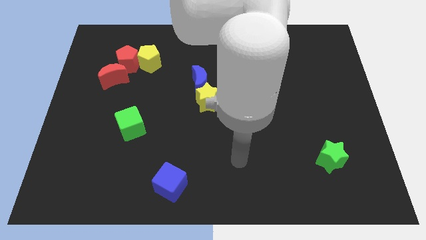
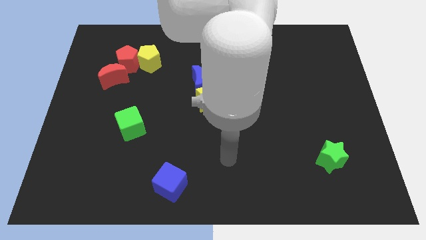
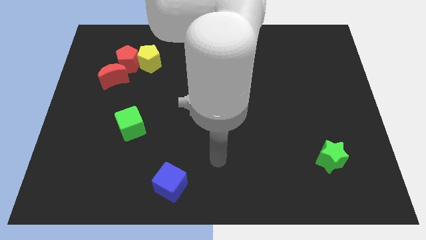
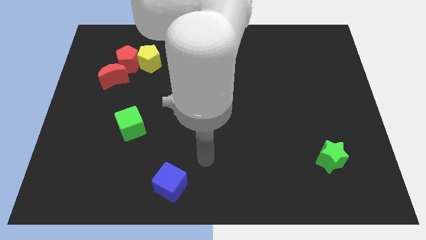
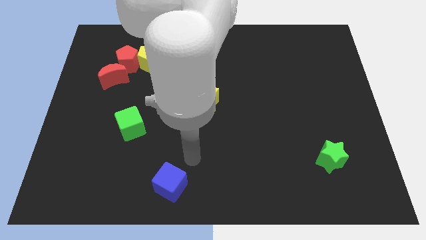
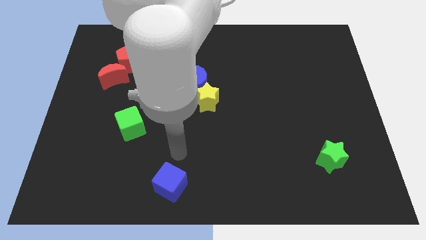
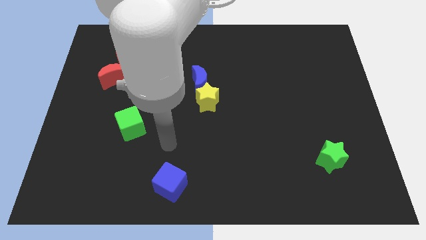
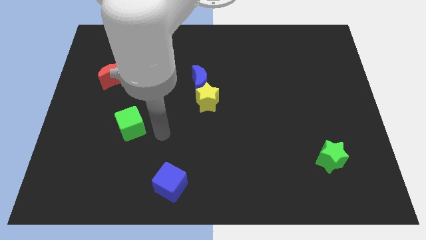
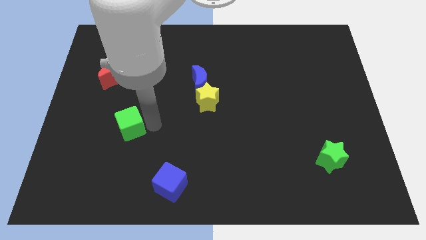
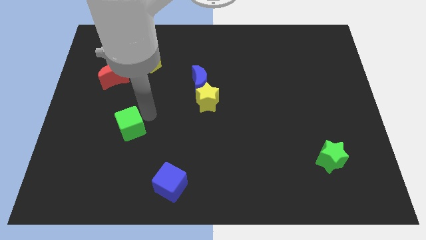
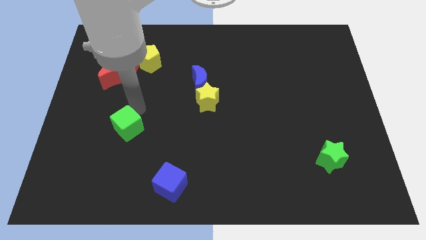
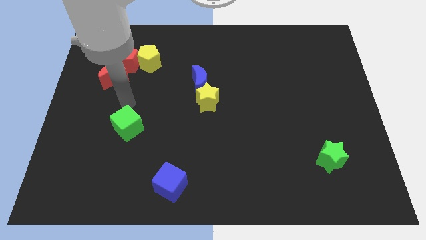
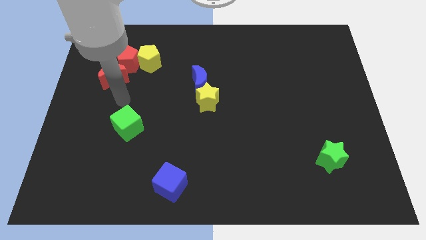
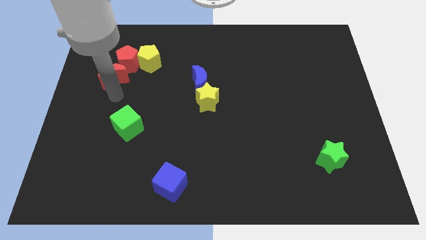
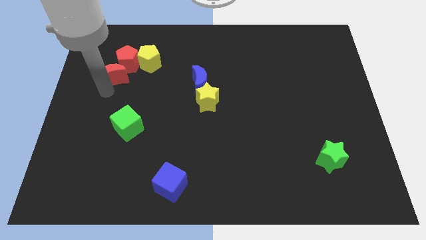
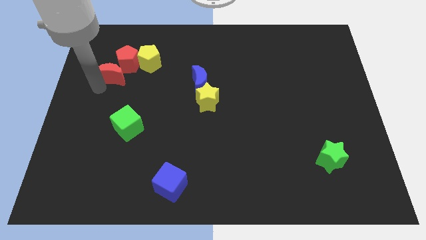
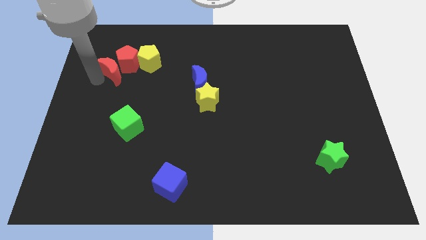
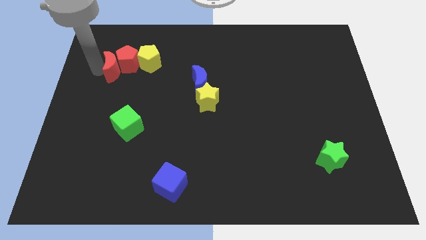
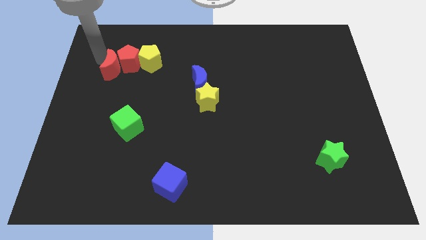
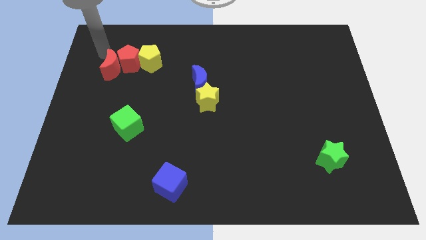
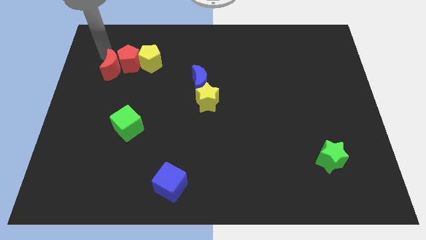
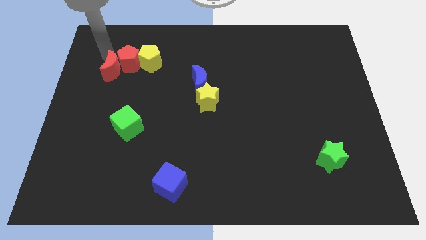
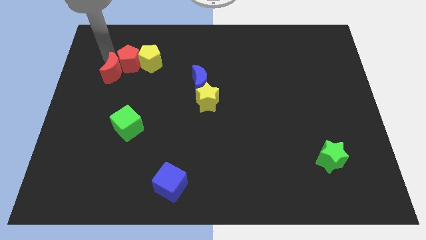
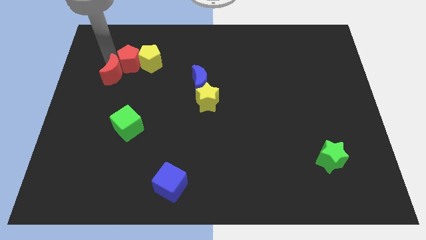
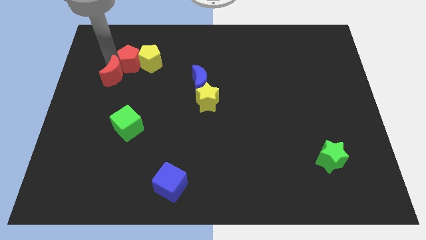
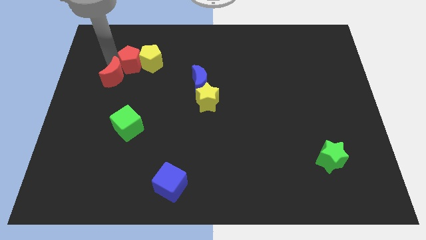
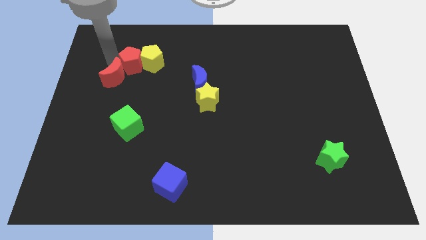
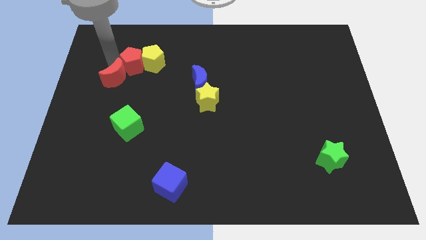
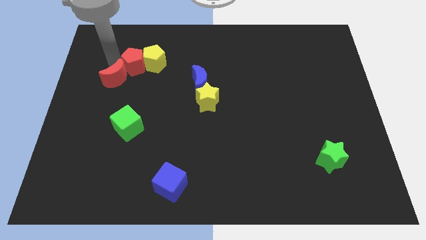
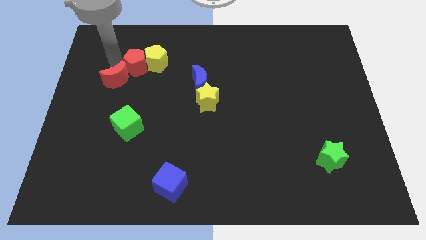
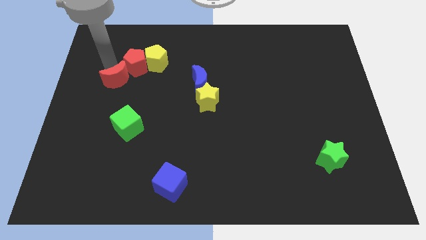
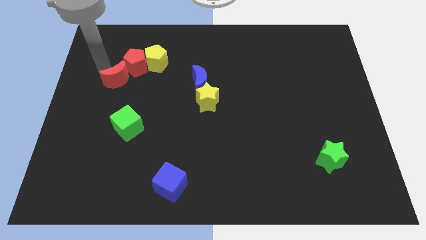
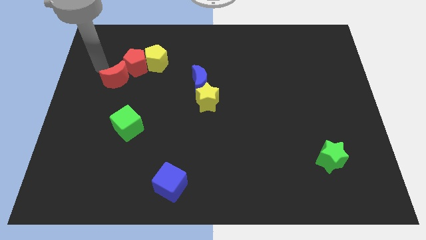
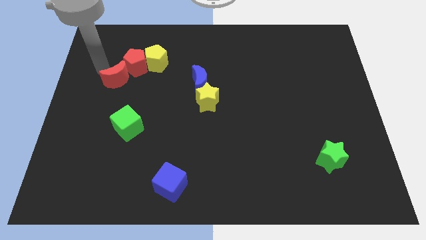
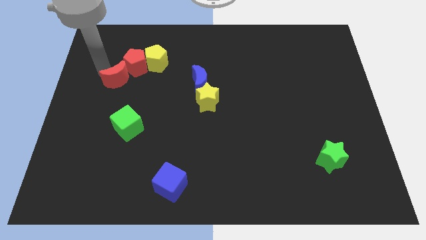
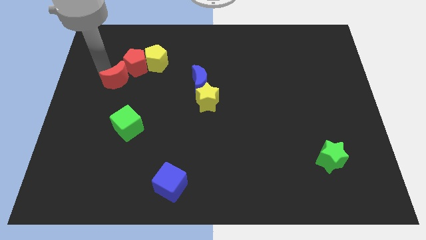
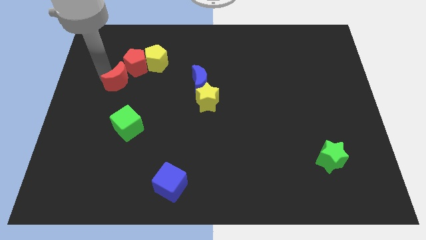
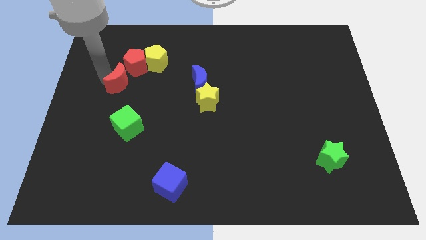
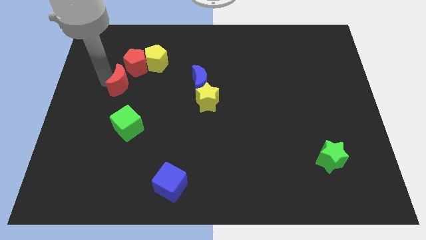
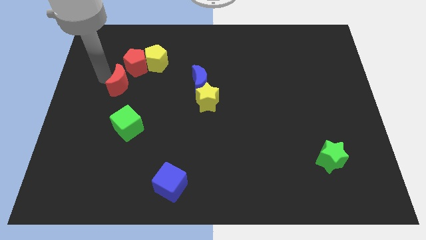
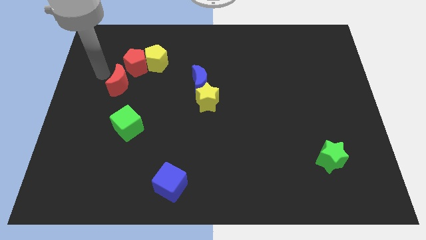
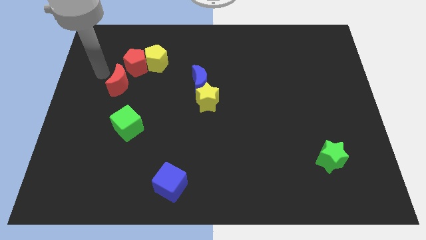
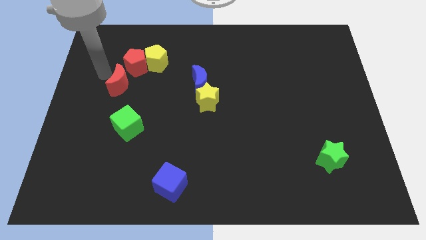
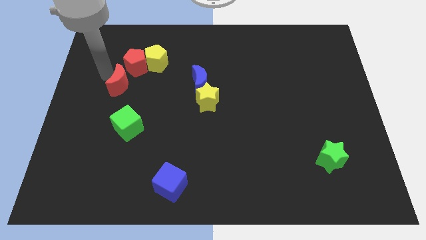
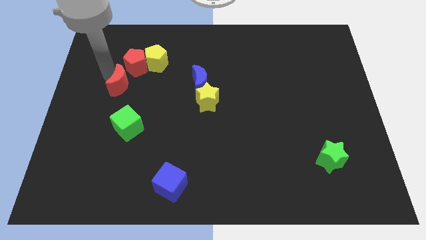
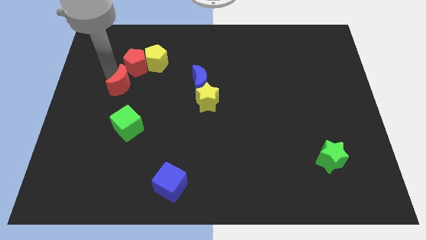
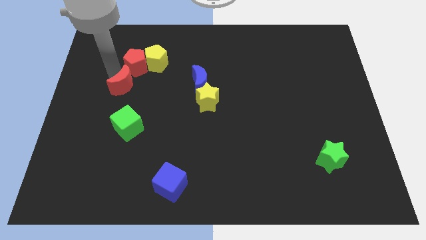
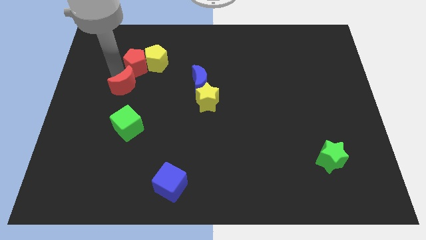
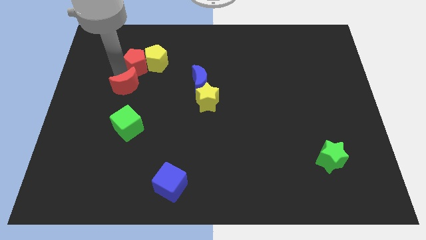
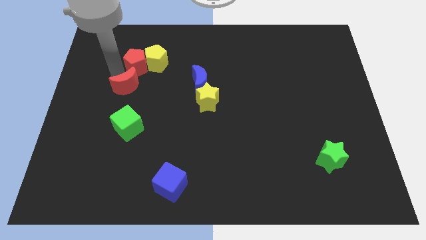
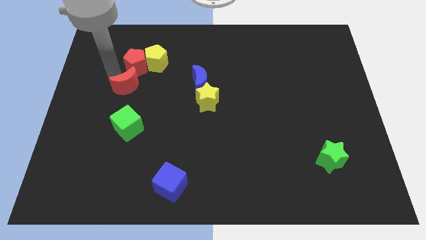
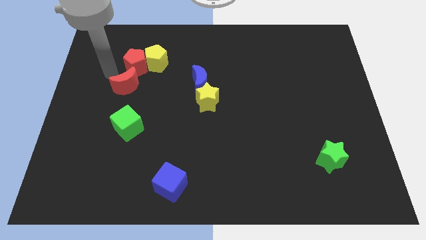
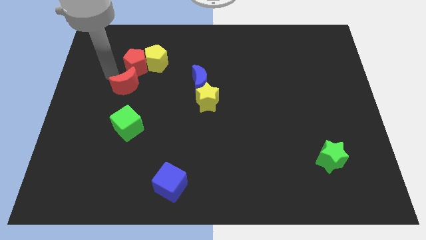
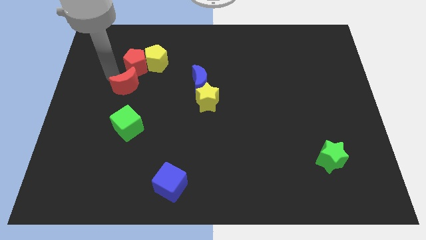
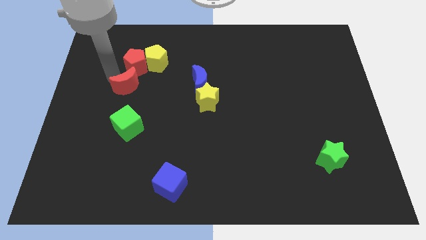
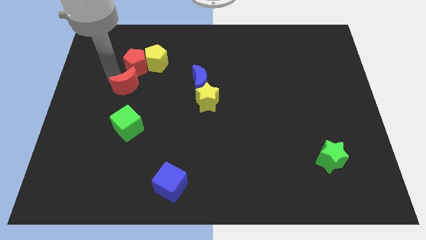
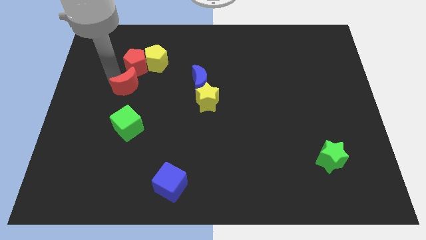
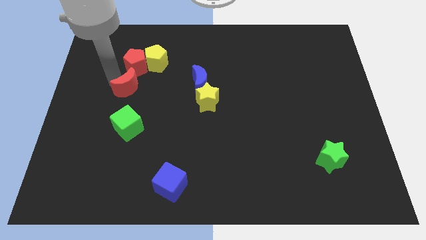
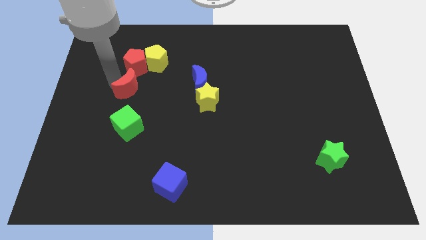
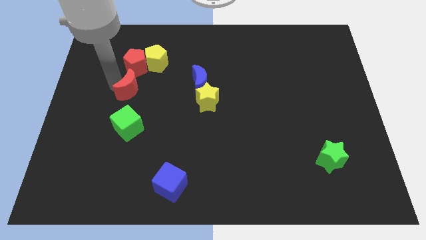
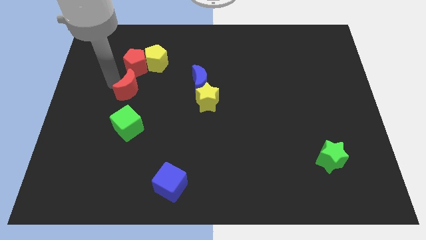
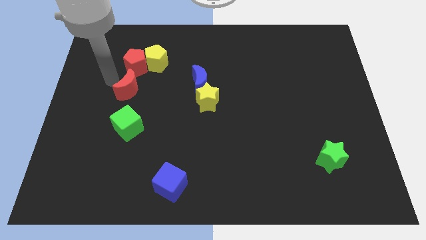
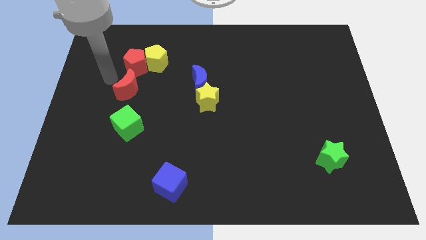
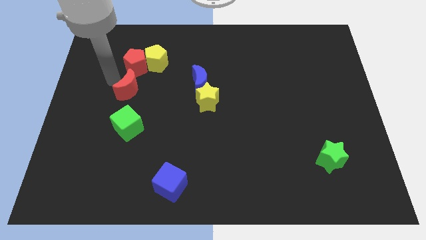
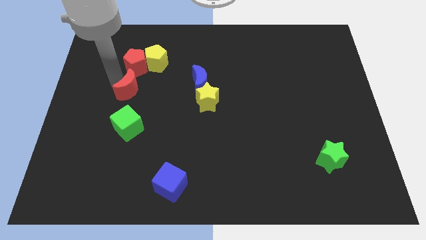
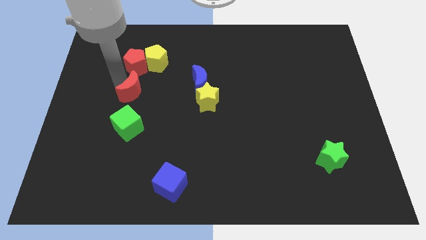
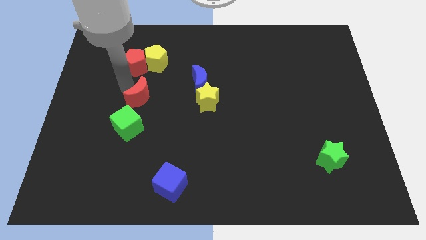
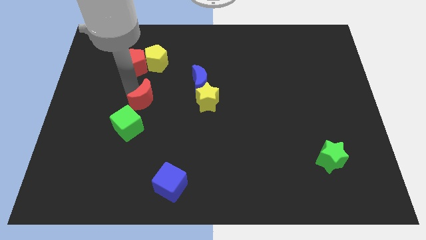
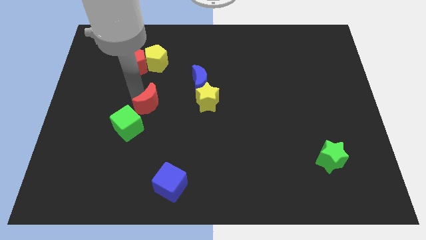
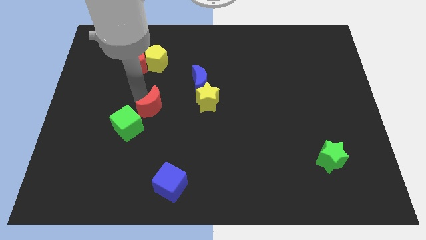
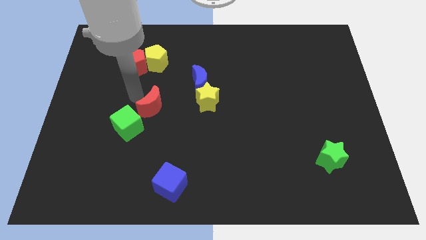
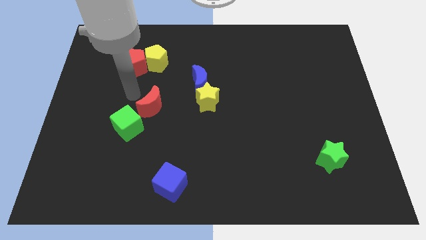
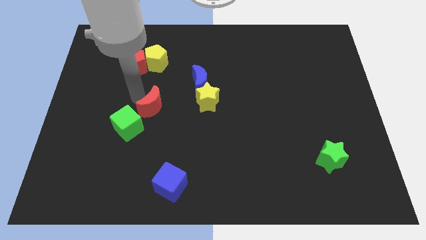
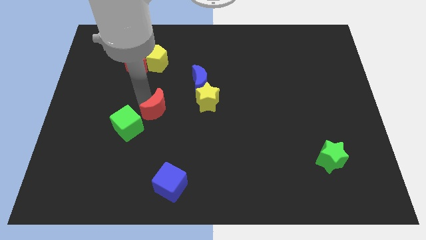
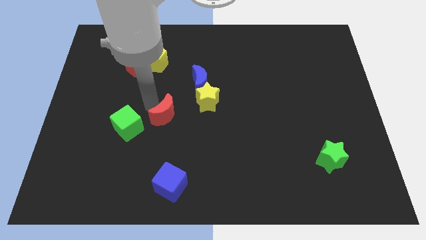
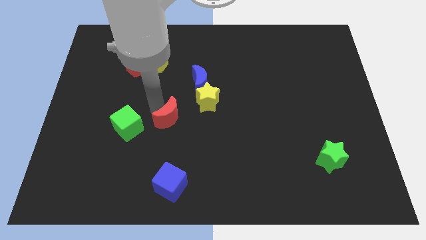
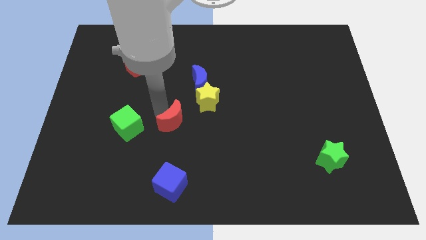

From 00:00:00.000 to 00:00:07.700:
move the red moon down and to the right

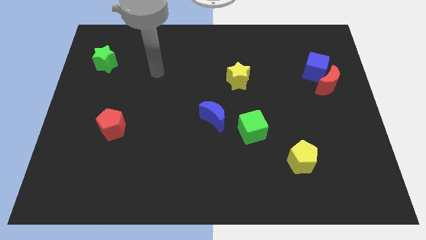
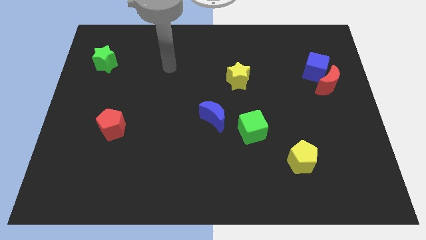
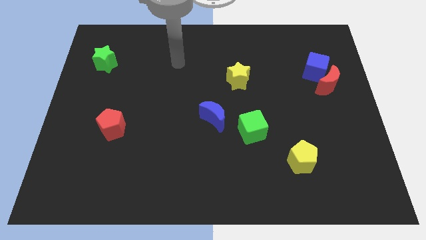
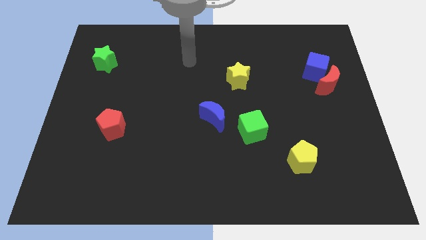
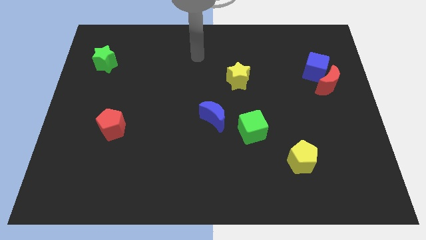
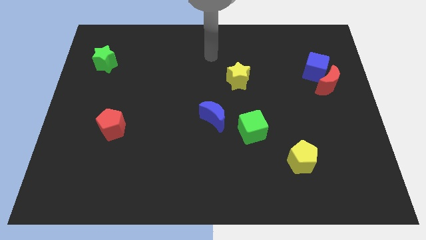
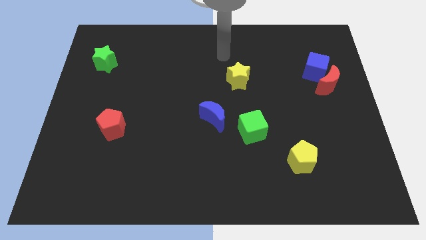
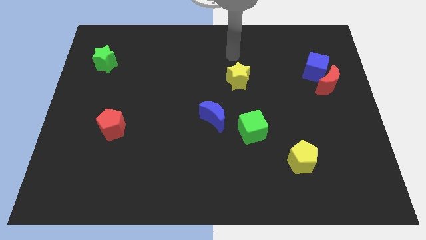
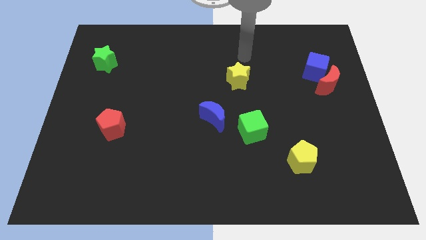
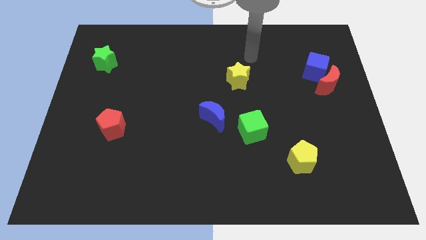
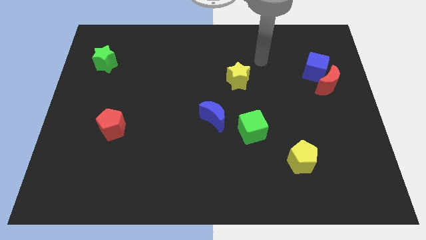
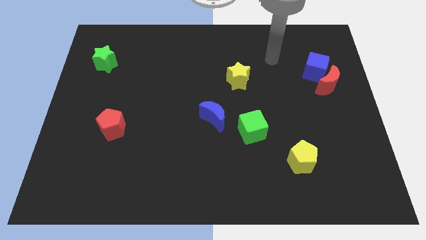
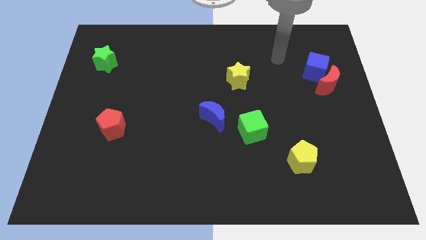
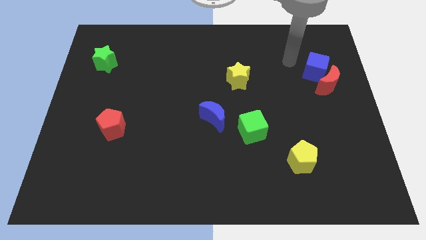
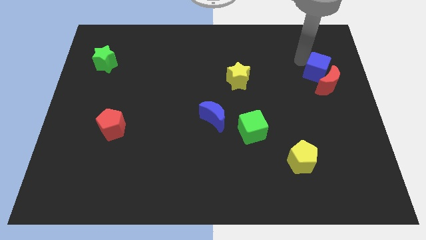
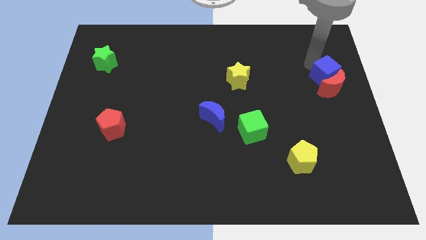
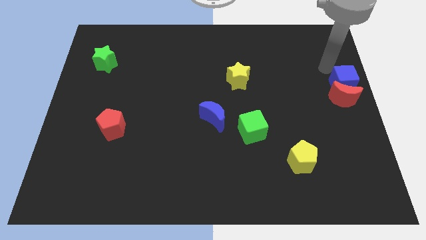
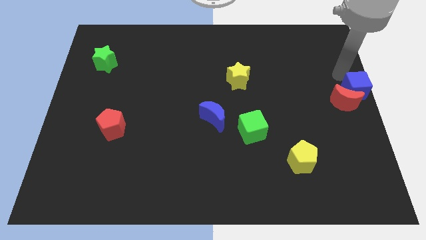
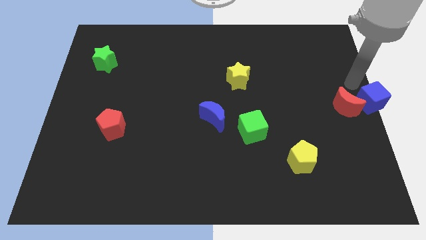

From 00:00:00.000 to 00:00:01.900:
slightly move the red moon downwards
